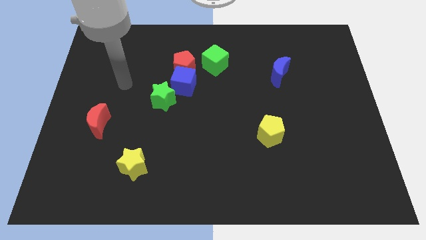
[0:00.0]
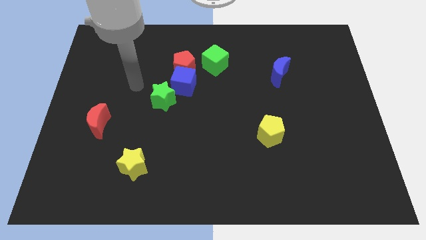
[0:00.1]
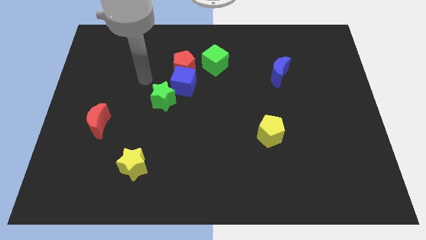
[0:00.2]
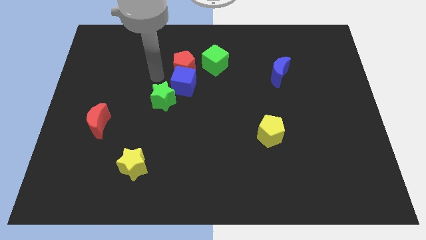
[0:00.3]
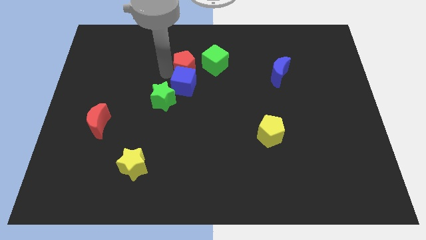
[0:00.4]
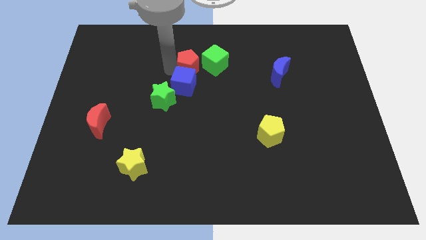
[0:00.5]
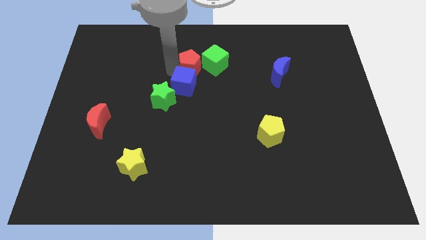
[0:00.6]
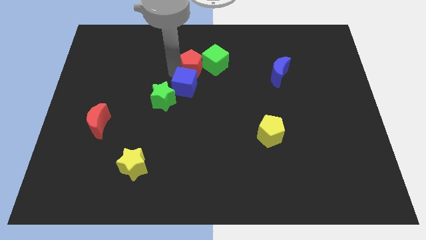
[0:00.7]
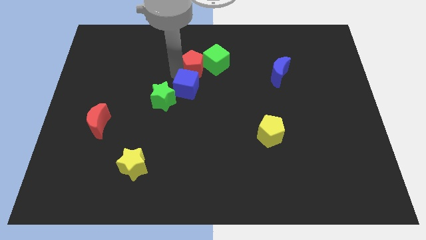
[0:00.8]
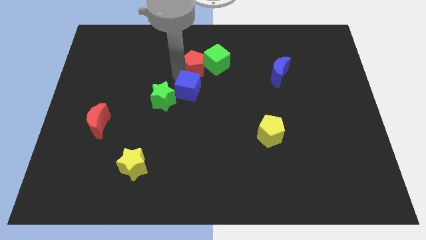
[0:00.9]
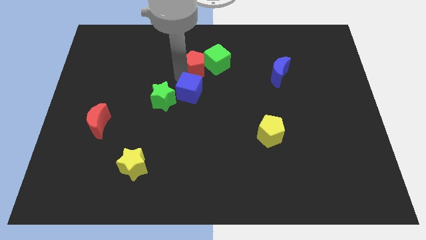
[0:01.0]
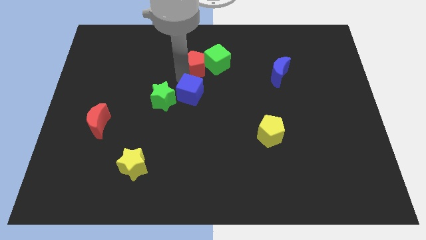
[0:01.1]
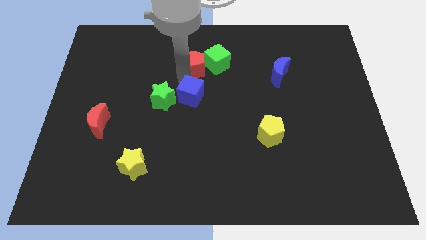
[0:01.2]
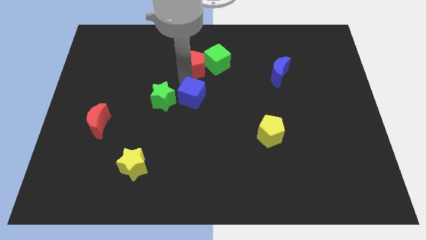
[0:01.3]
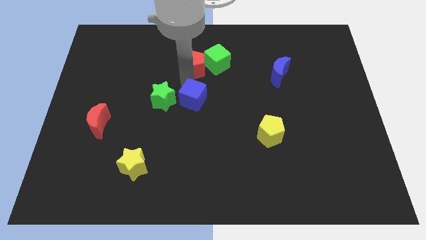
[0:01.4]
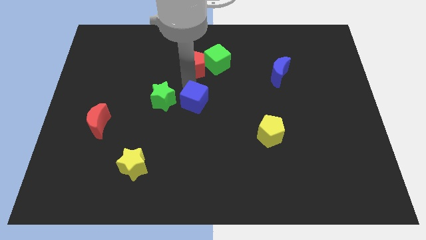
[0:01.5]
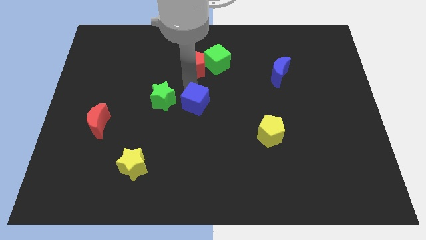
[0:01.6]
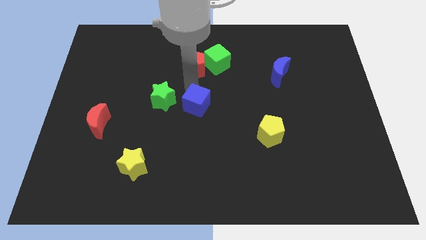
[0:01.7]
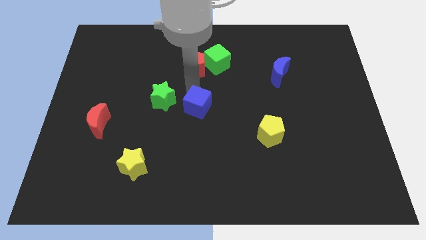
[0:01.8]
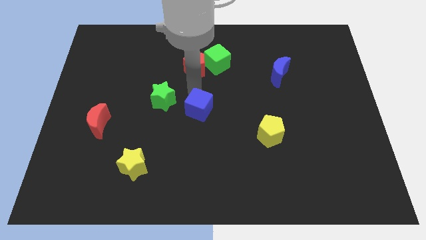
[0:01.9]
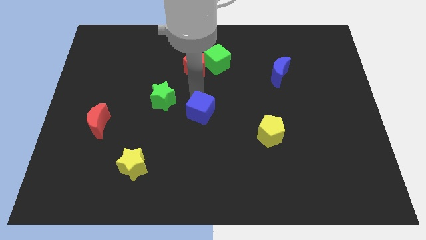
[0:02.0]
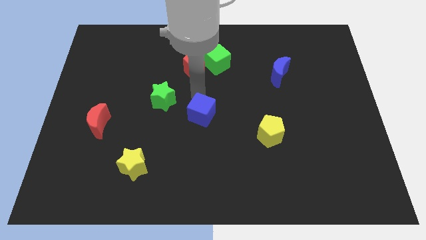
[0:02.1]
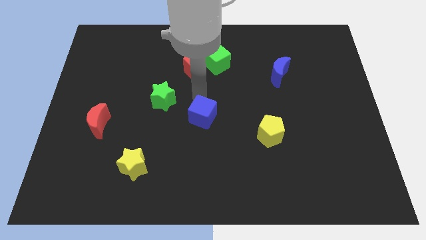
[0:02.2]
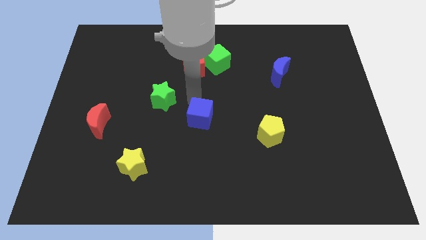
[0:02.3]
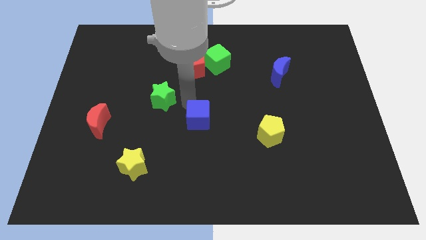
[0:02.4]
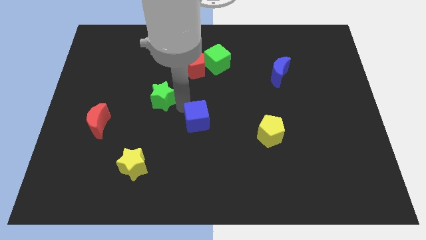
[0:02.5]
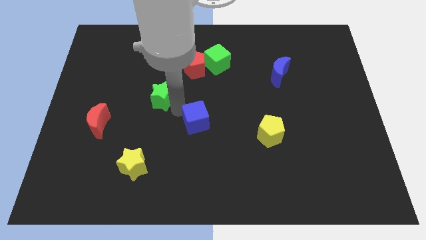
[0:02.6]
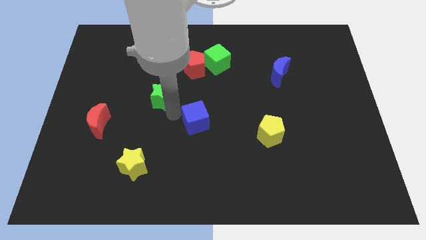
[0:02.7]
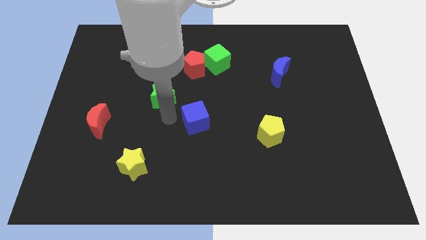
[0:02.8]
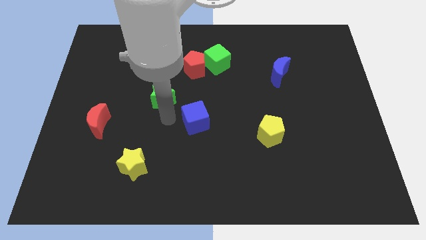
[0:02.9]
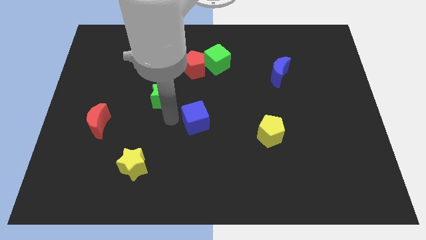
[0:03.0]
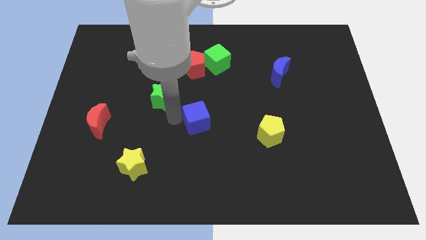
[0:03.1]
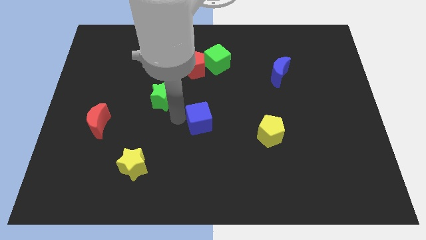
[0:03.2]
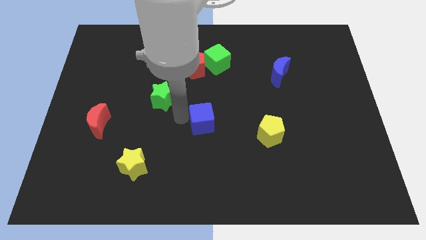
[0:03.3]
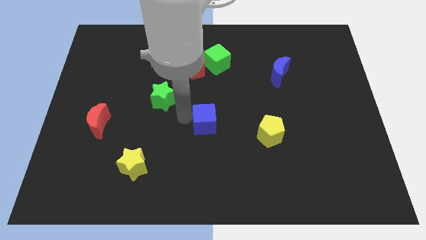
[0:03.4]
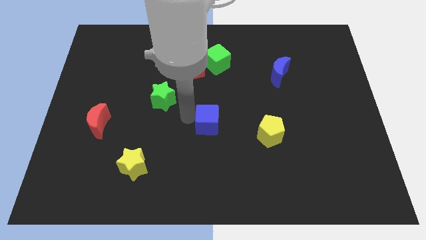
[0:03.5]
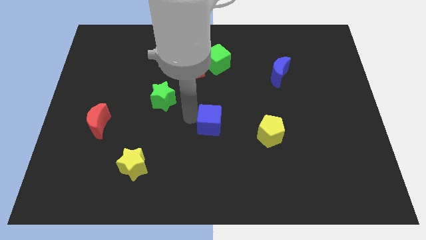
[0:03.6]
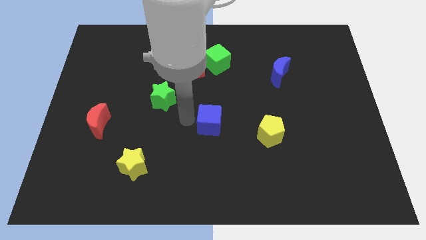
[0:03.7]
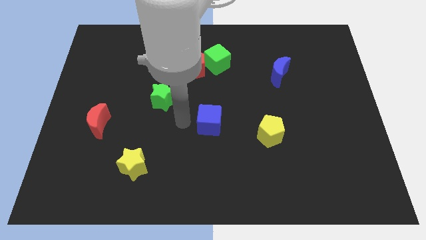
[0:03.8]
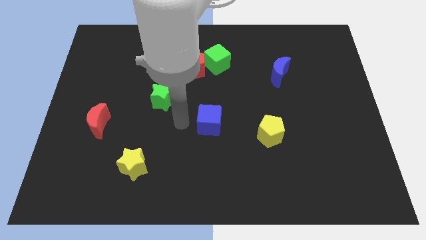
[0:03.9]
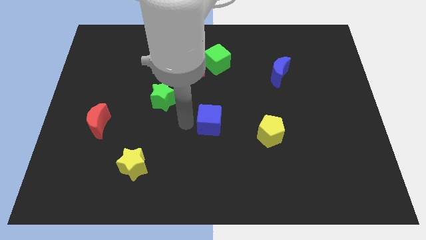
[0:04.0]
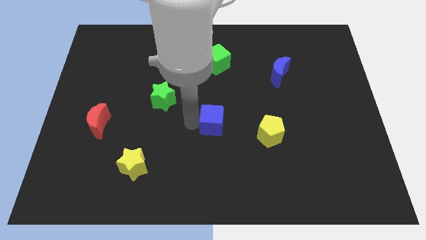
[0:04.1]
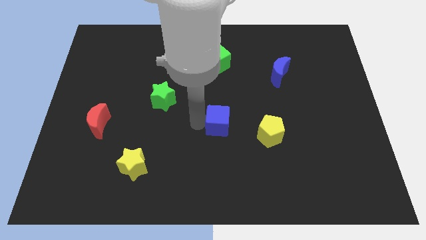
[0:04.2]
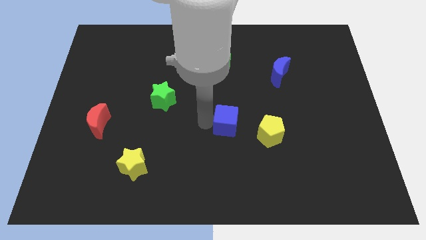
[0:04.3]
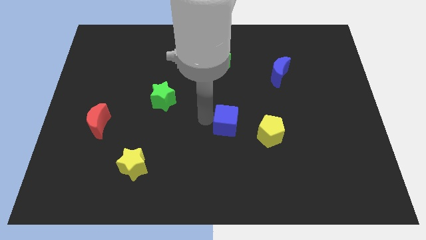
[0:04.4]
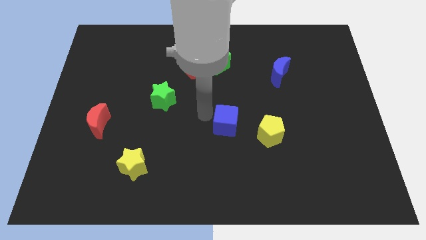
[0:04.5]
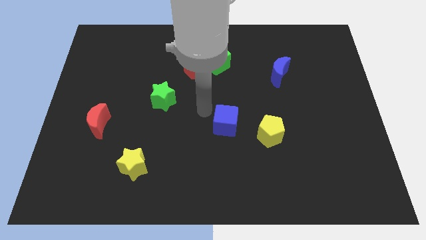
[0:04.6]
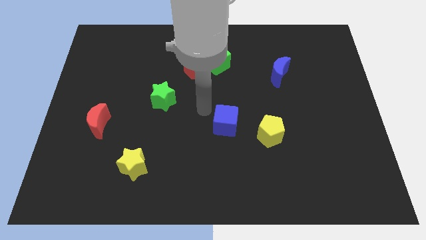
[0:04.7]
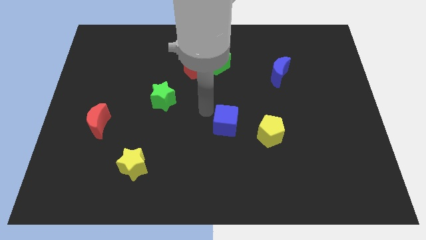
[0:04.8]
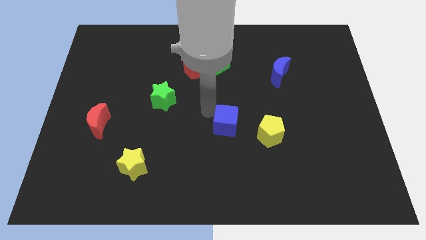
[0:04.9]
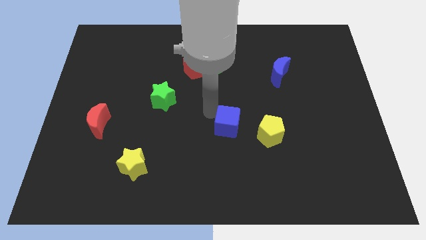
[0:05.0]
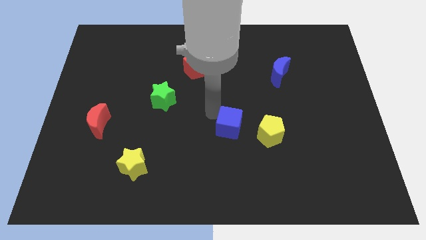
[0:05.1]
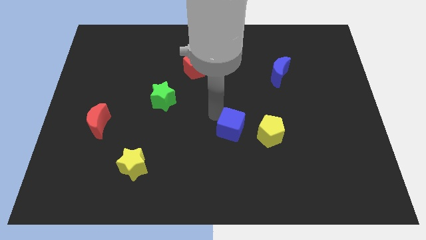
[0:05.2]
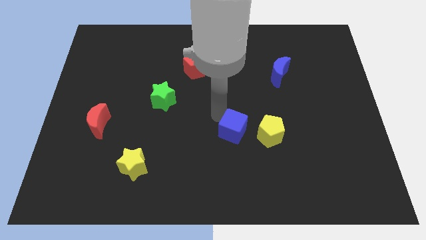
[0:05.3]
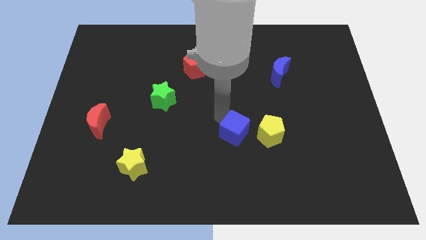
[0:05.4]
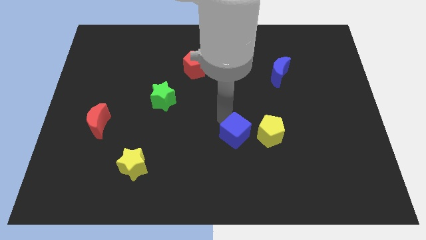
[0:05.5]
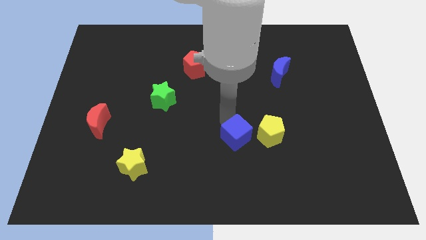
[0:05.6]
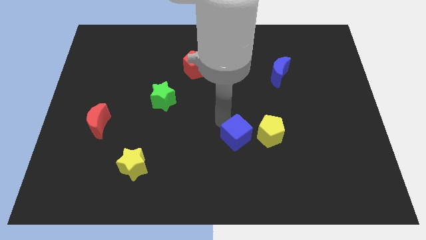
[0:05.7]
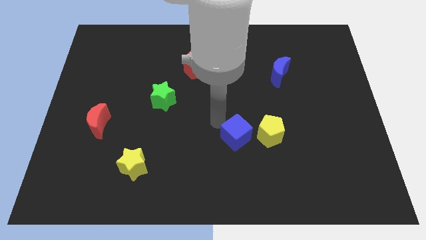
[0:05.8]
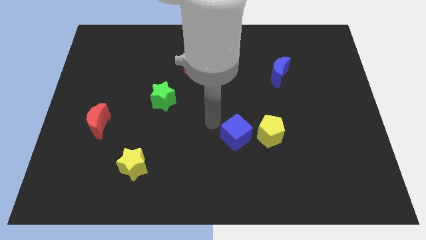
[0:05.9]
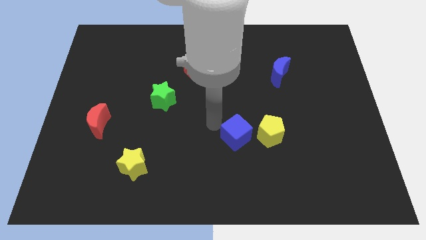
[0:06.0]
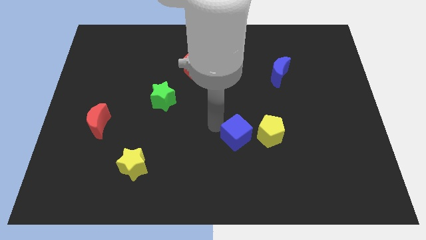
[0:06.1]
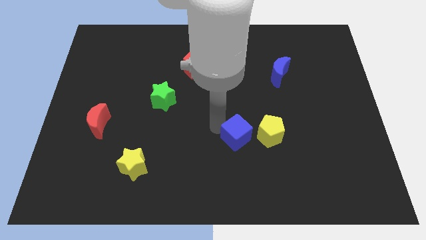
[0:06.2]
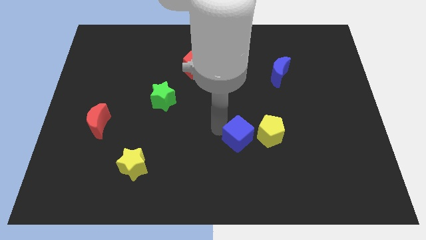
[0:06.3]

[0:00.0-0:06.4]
slide the blue cube diagonally downwards and right

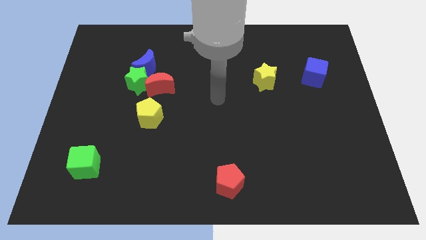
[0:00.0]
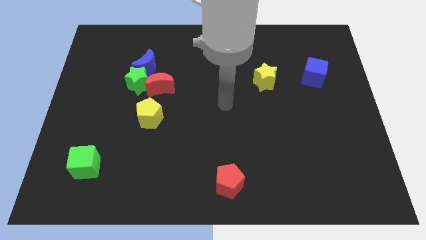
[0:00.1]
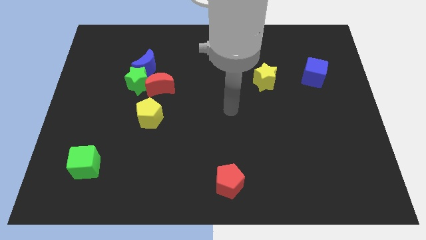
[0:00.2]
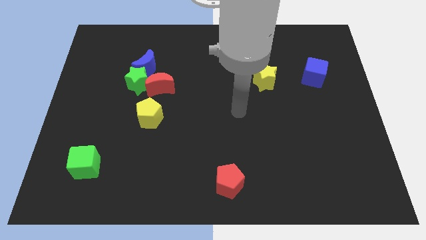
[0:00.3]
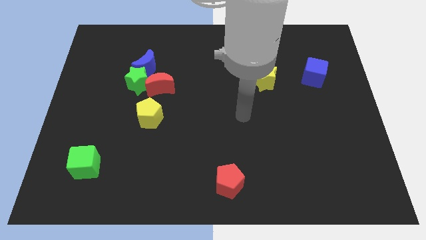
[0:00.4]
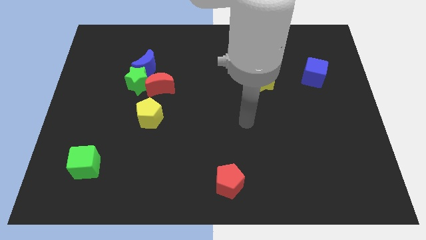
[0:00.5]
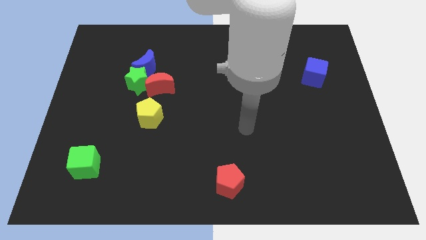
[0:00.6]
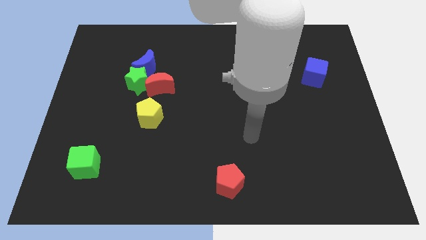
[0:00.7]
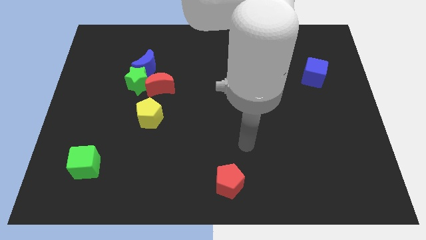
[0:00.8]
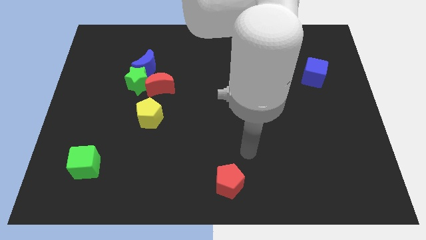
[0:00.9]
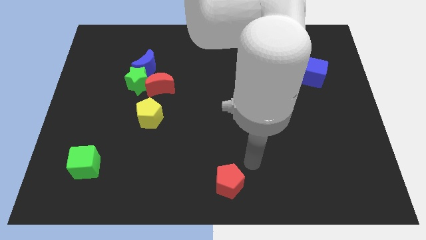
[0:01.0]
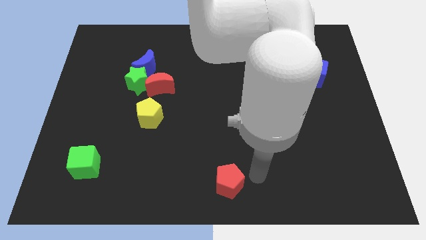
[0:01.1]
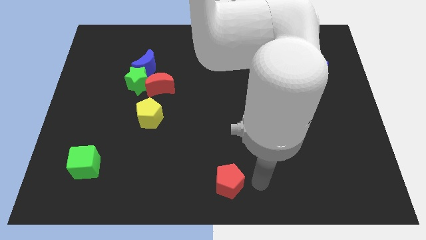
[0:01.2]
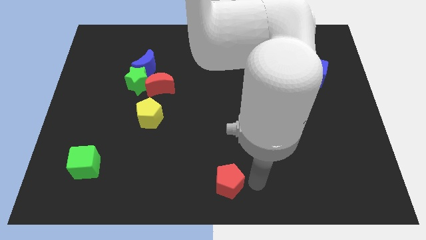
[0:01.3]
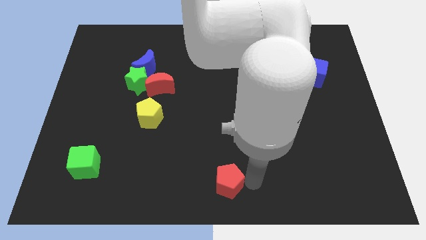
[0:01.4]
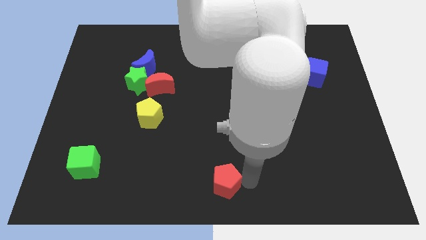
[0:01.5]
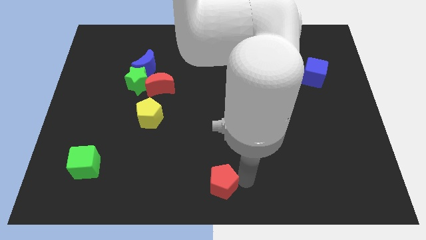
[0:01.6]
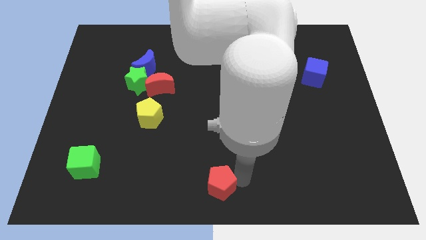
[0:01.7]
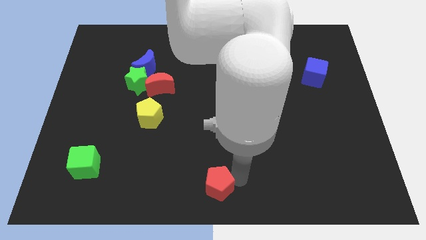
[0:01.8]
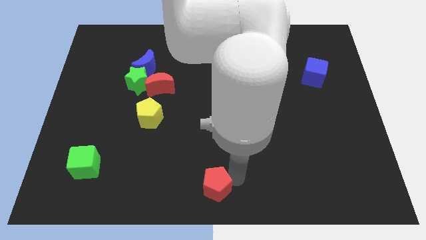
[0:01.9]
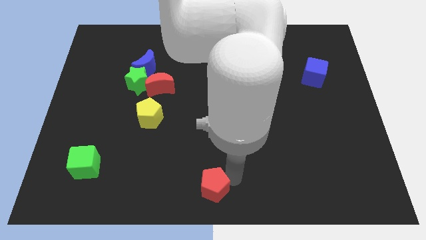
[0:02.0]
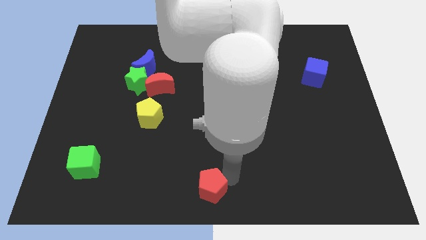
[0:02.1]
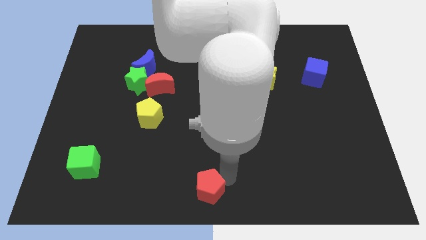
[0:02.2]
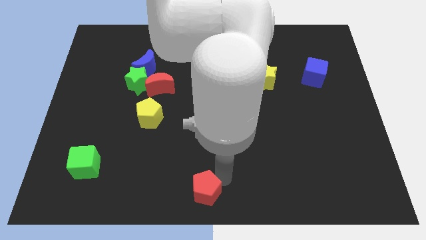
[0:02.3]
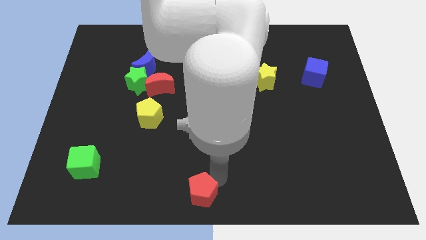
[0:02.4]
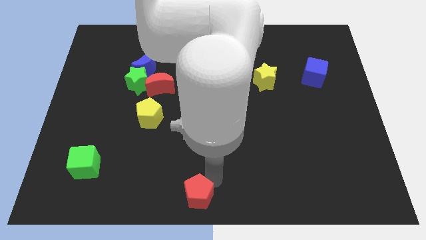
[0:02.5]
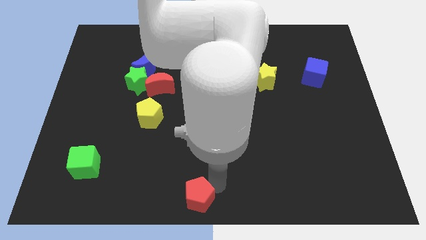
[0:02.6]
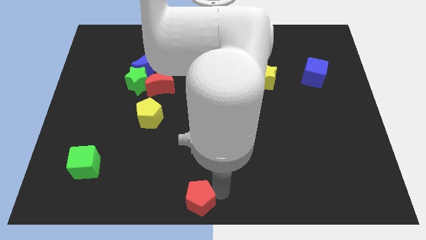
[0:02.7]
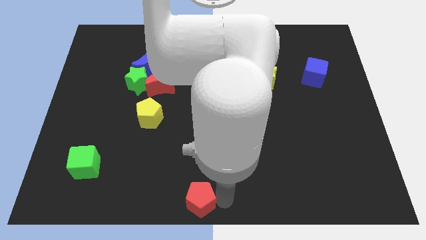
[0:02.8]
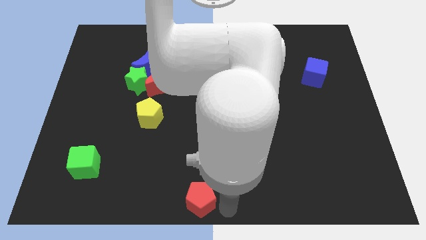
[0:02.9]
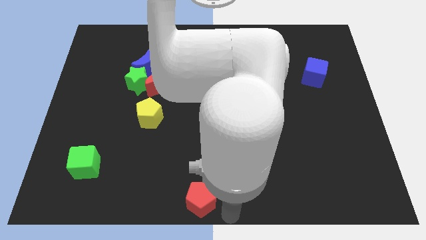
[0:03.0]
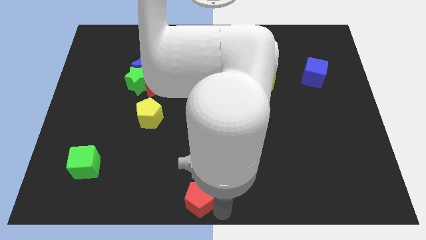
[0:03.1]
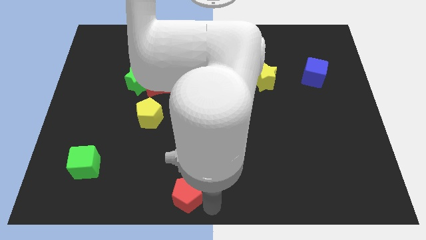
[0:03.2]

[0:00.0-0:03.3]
push the red pentagon left somewhat
